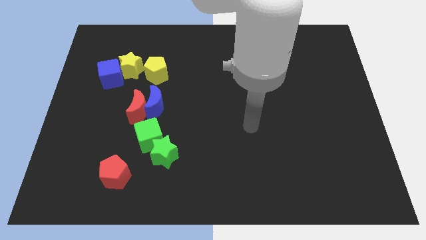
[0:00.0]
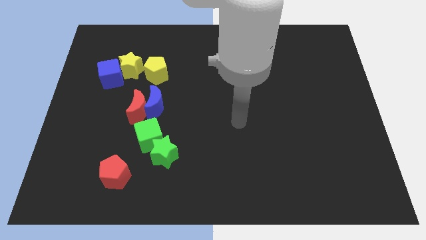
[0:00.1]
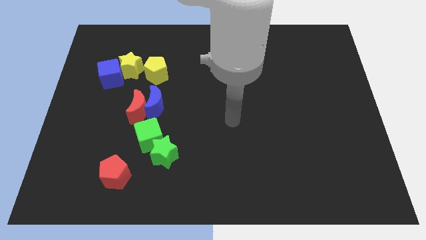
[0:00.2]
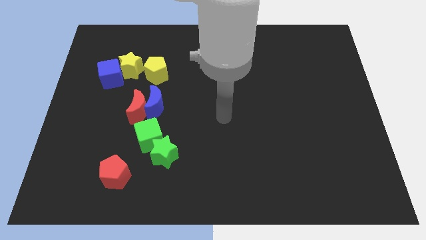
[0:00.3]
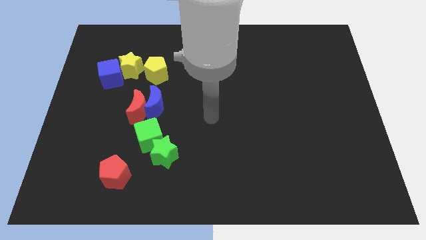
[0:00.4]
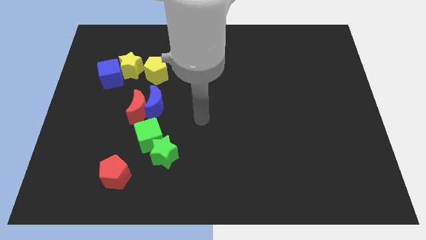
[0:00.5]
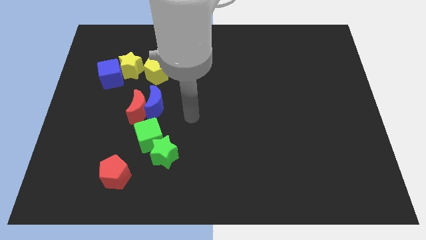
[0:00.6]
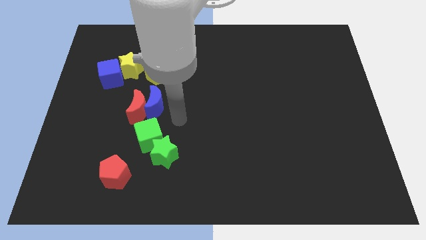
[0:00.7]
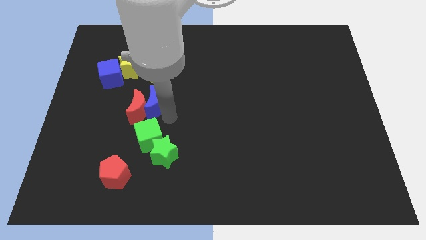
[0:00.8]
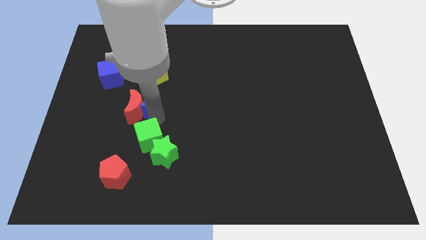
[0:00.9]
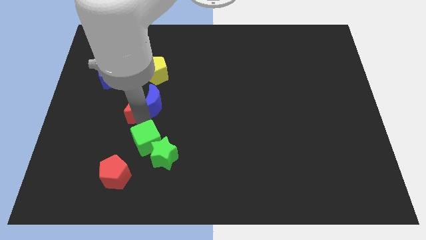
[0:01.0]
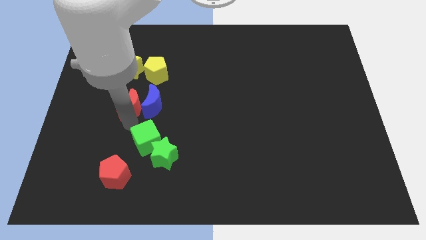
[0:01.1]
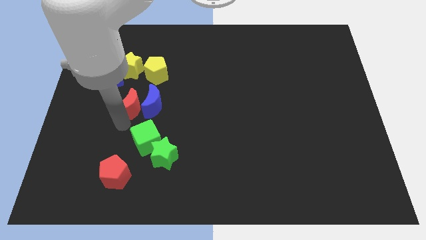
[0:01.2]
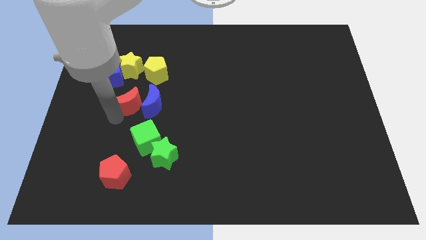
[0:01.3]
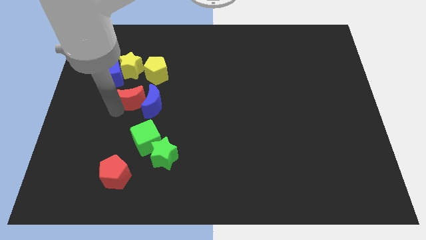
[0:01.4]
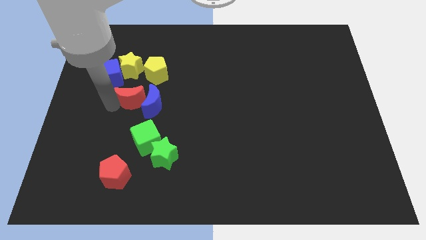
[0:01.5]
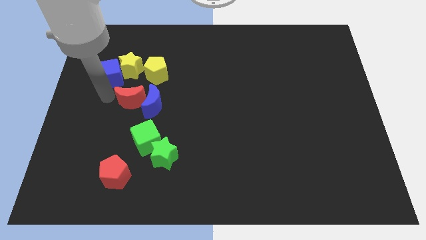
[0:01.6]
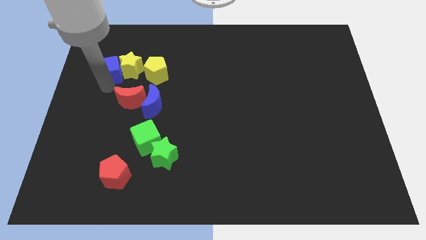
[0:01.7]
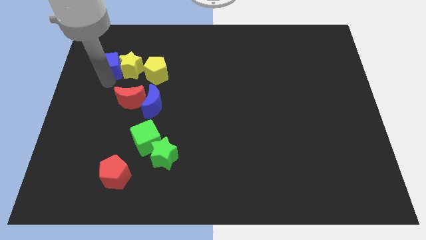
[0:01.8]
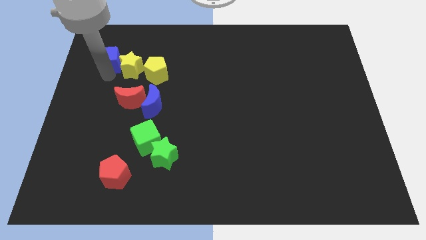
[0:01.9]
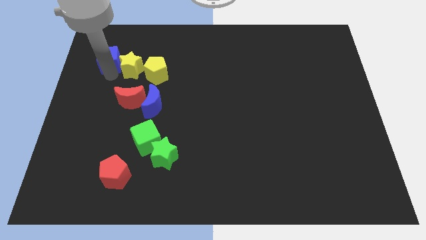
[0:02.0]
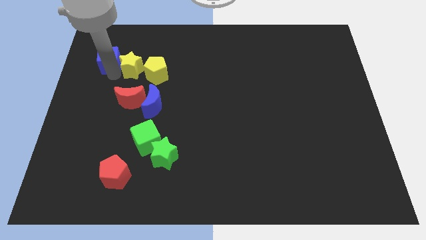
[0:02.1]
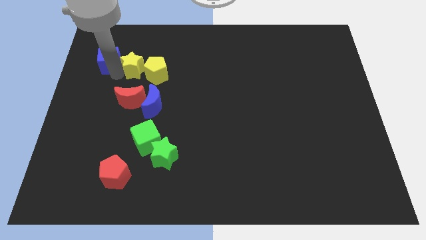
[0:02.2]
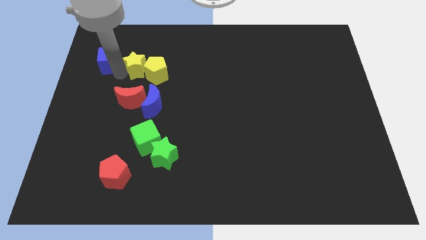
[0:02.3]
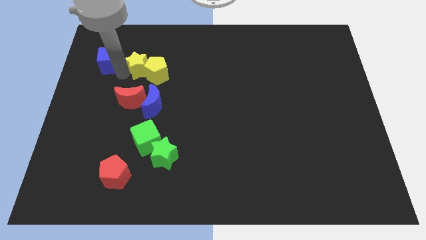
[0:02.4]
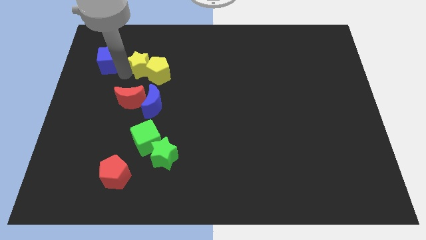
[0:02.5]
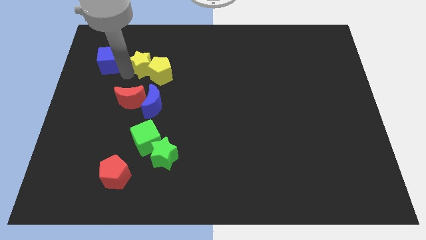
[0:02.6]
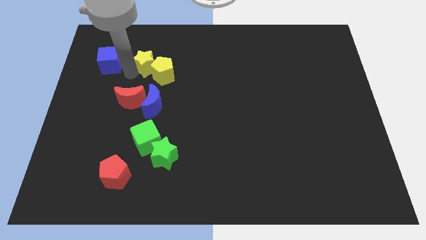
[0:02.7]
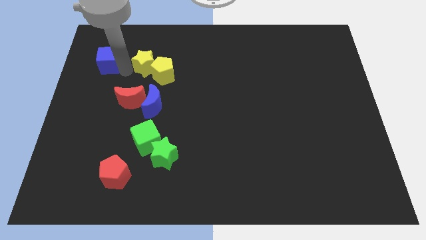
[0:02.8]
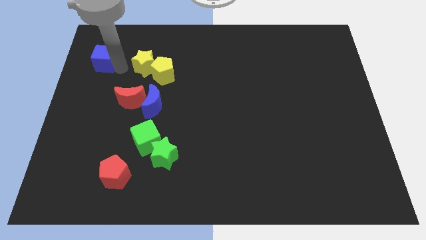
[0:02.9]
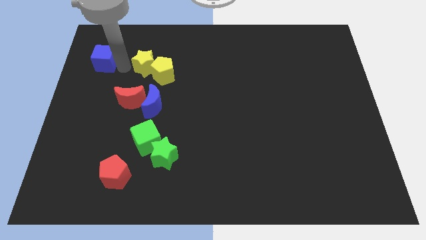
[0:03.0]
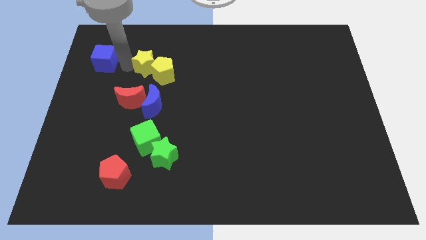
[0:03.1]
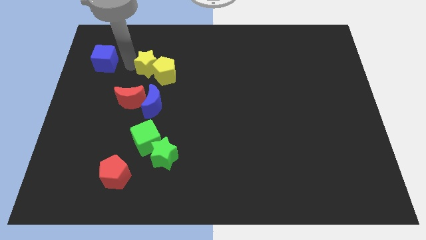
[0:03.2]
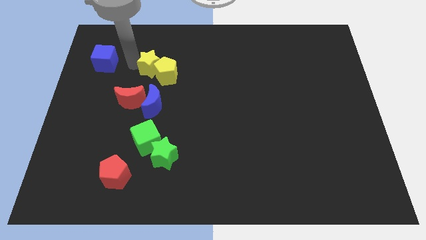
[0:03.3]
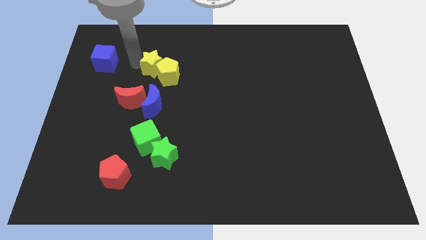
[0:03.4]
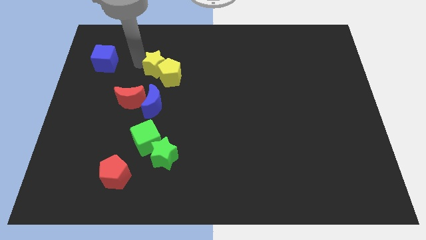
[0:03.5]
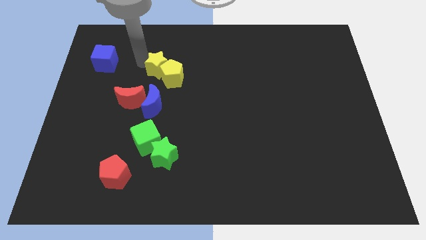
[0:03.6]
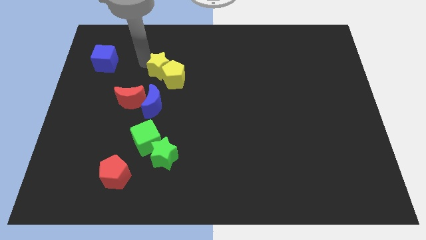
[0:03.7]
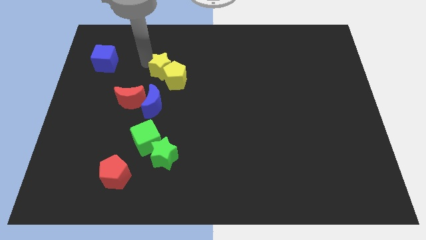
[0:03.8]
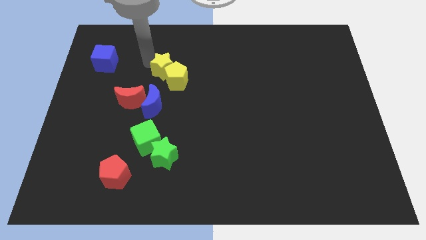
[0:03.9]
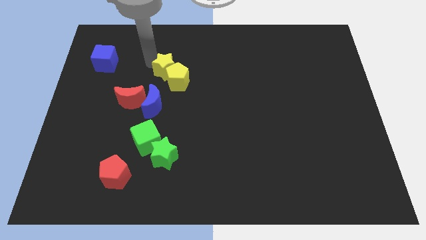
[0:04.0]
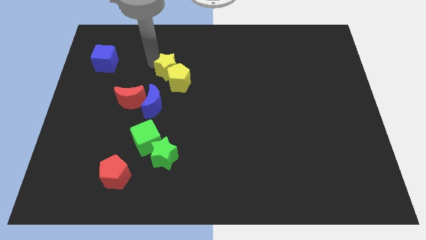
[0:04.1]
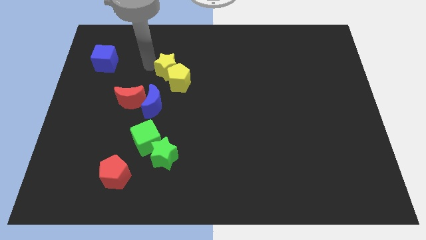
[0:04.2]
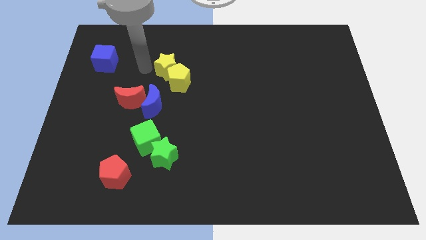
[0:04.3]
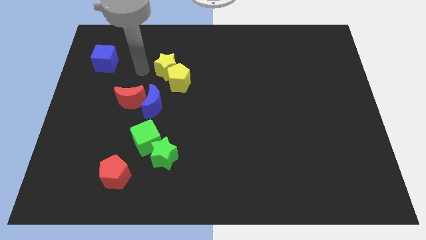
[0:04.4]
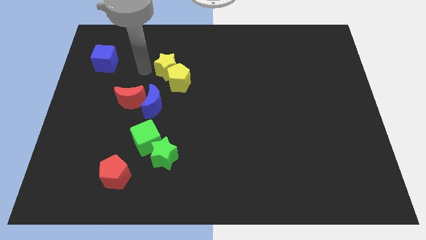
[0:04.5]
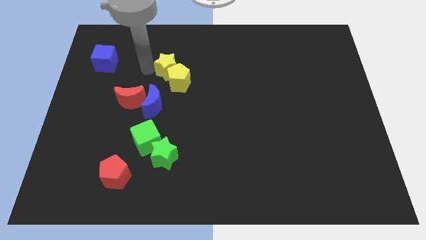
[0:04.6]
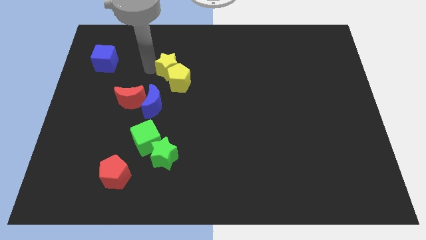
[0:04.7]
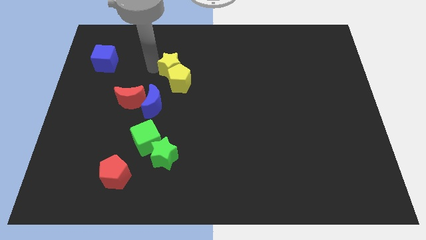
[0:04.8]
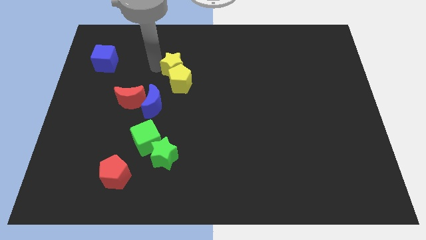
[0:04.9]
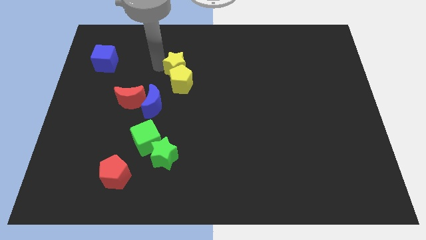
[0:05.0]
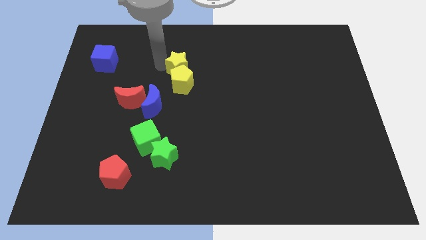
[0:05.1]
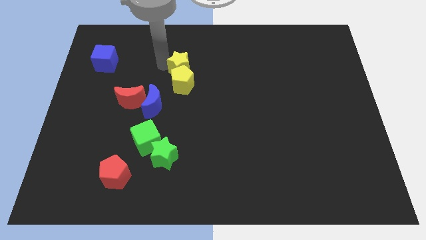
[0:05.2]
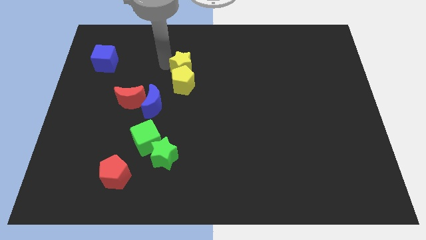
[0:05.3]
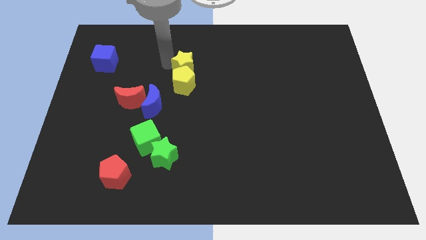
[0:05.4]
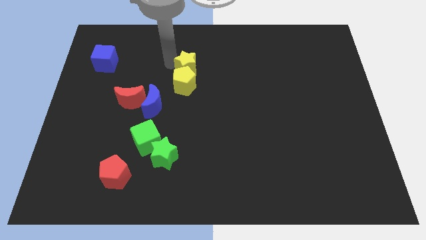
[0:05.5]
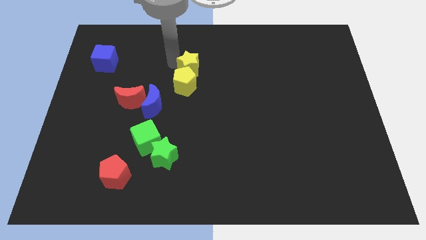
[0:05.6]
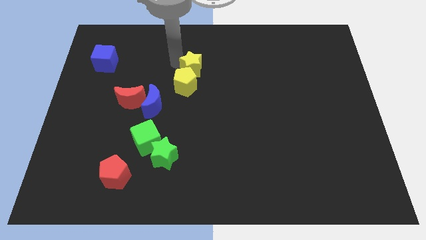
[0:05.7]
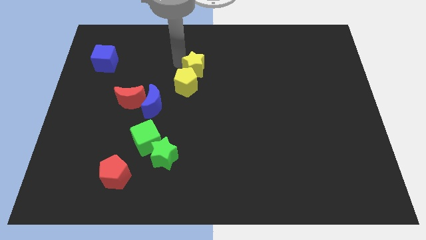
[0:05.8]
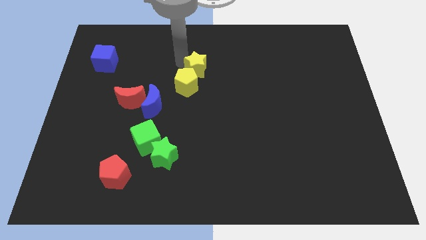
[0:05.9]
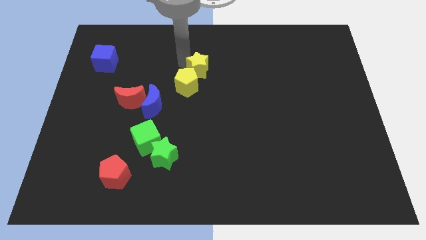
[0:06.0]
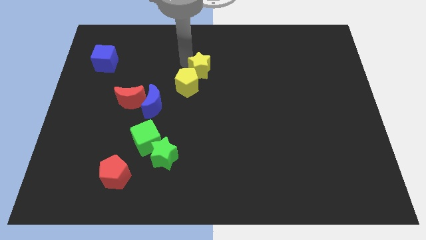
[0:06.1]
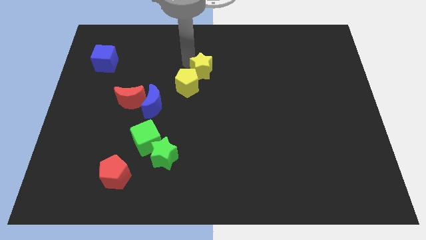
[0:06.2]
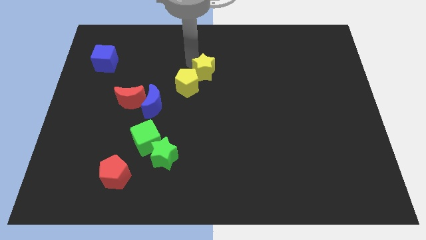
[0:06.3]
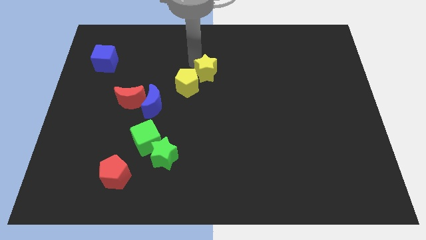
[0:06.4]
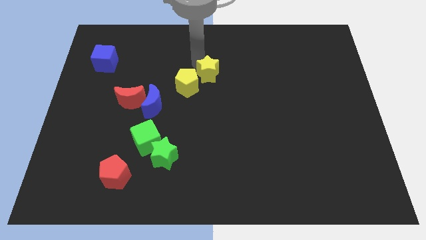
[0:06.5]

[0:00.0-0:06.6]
move the yellow star right

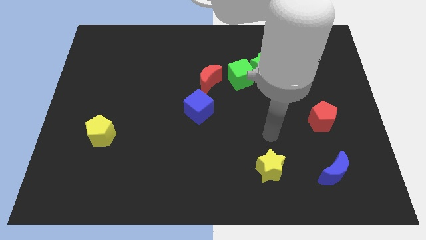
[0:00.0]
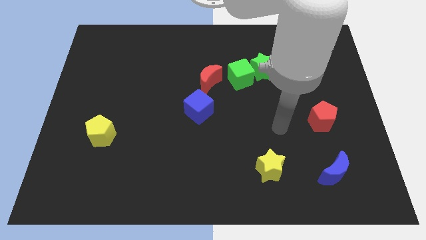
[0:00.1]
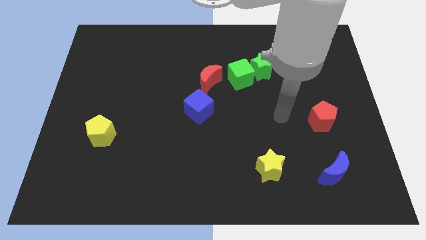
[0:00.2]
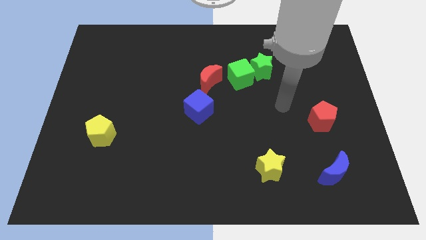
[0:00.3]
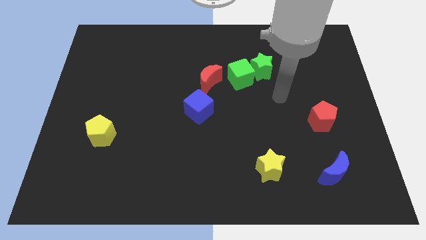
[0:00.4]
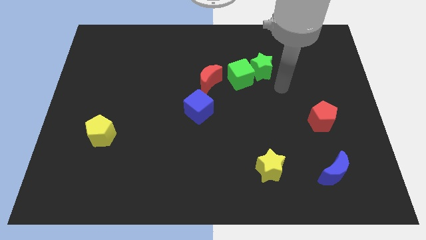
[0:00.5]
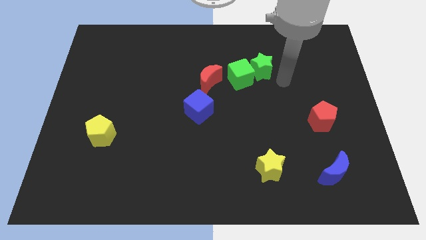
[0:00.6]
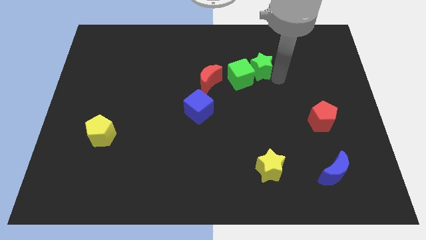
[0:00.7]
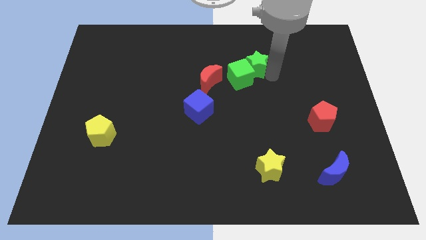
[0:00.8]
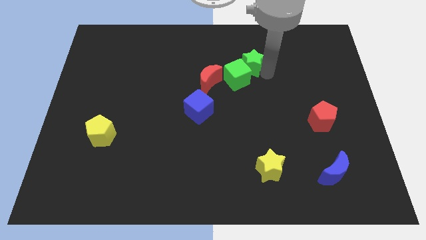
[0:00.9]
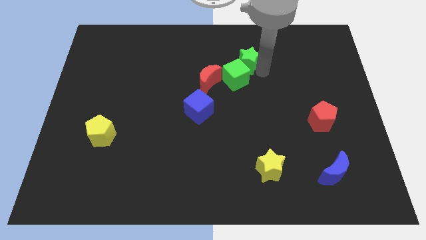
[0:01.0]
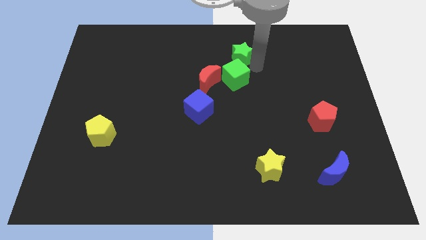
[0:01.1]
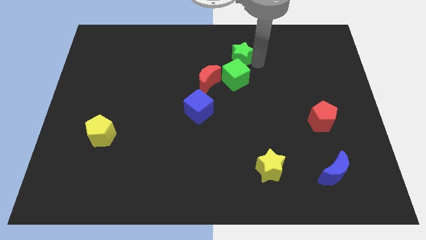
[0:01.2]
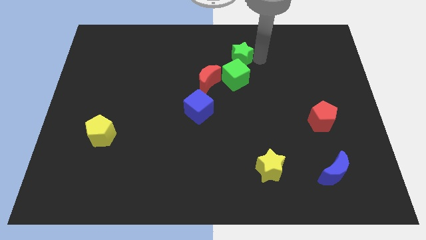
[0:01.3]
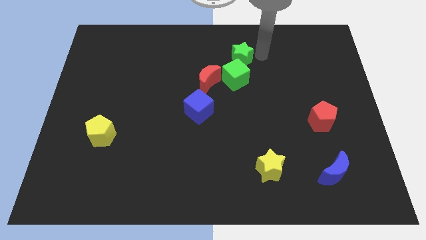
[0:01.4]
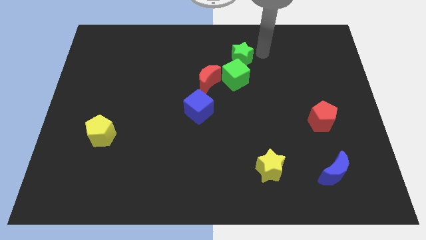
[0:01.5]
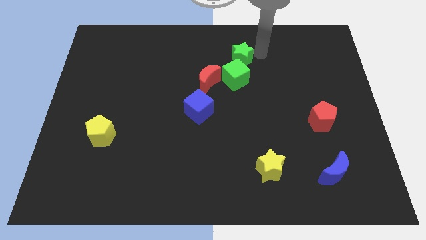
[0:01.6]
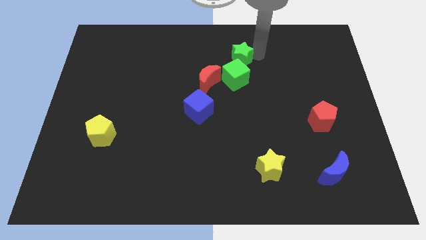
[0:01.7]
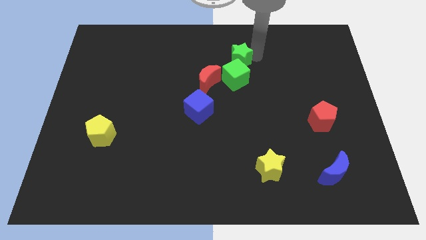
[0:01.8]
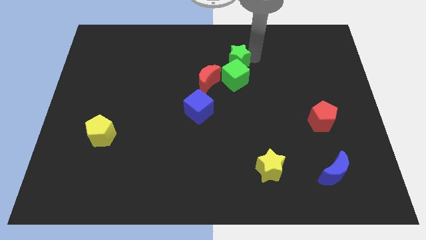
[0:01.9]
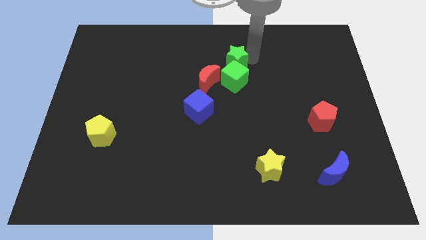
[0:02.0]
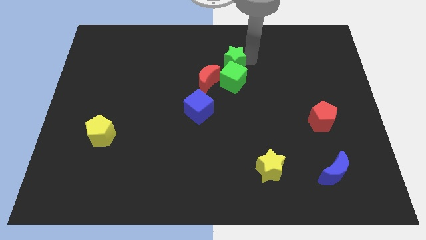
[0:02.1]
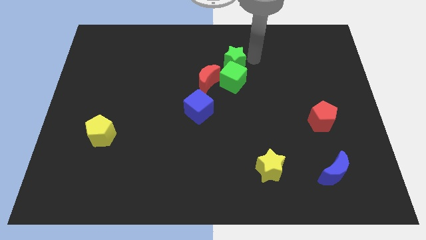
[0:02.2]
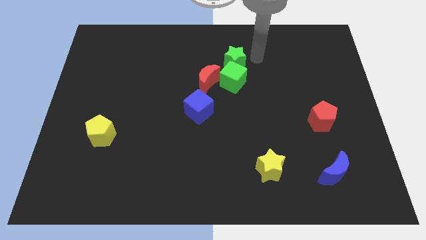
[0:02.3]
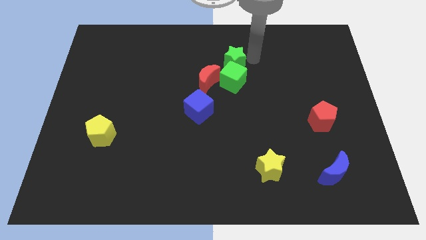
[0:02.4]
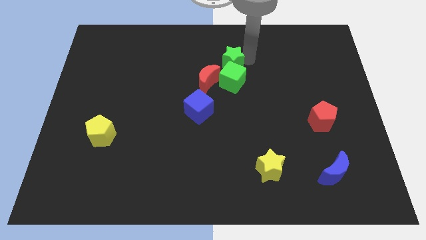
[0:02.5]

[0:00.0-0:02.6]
slide the green star to the left slightly
